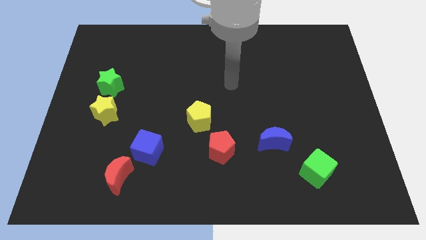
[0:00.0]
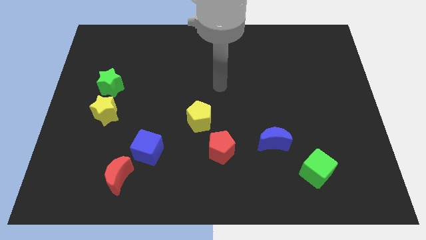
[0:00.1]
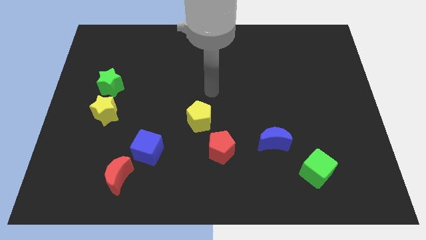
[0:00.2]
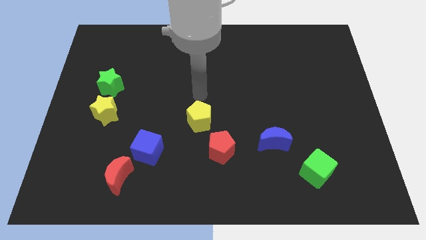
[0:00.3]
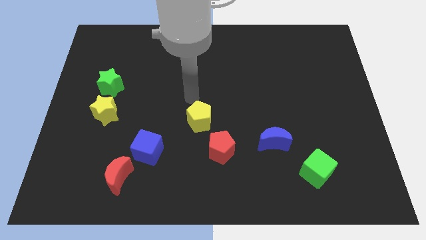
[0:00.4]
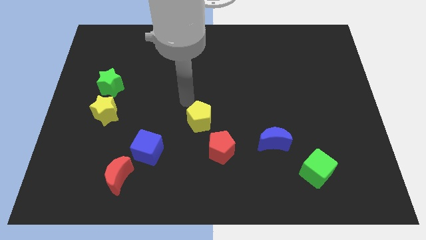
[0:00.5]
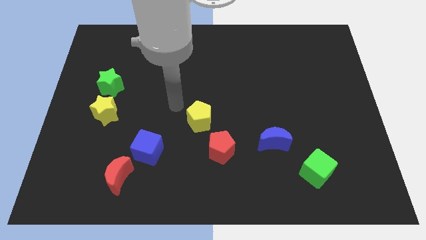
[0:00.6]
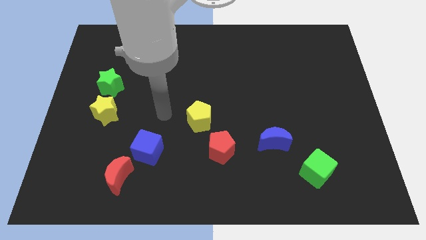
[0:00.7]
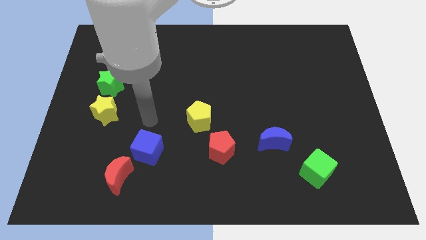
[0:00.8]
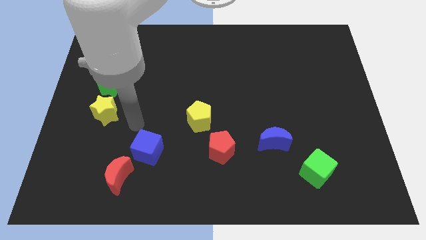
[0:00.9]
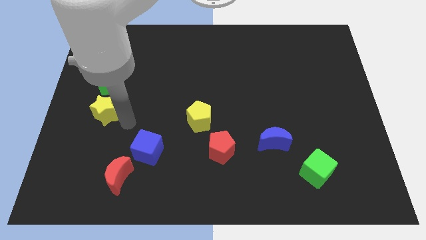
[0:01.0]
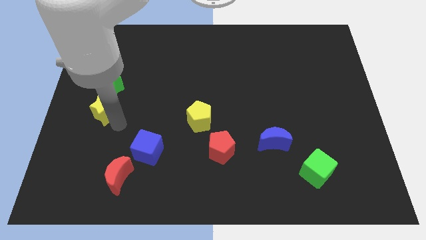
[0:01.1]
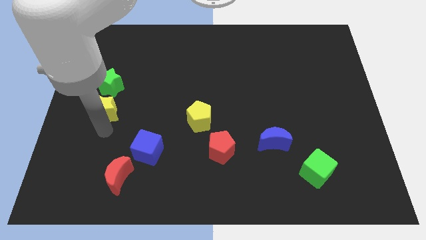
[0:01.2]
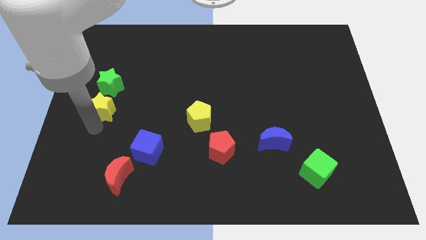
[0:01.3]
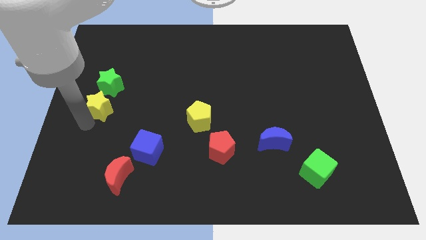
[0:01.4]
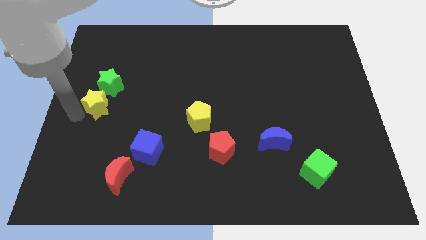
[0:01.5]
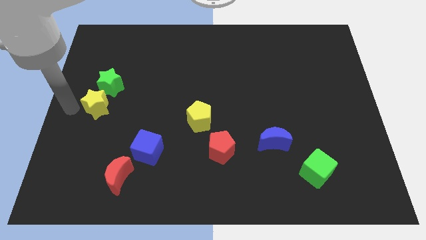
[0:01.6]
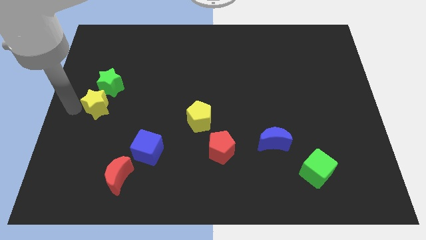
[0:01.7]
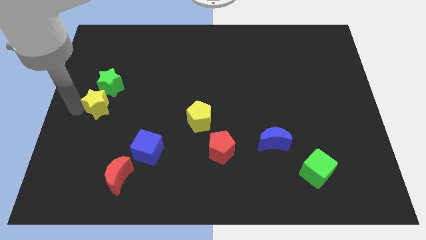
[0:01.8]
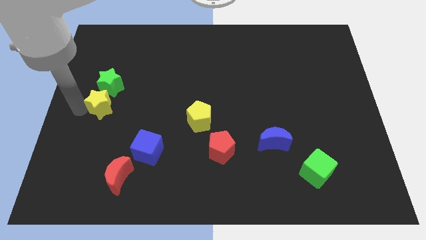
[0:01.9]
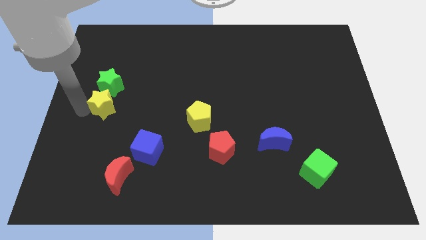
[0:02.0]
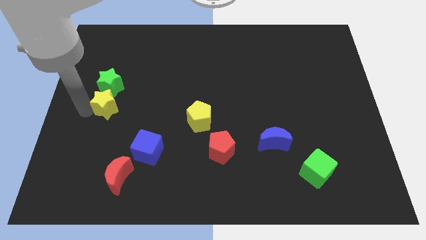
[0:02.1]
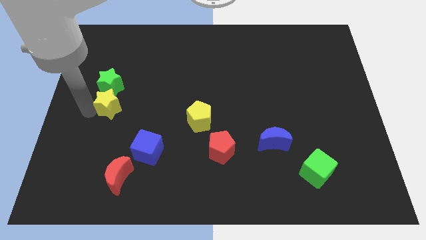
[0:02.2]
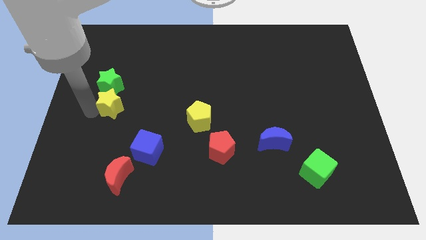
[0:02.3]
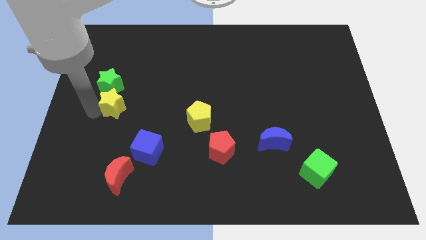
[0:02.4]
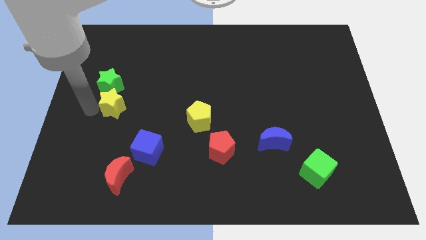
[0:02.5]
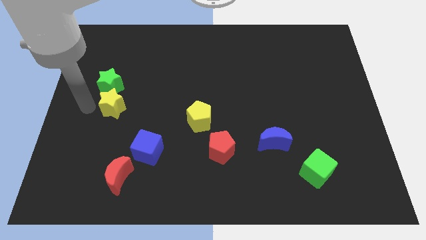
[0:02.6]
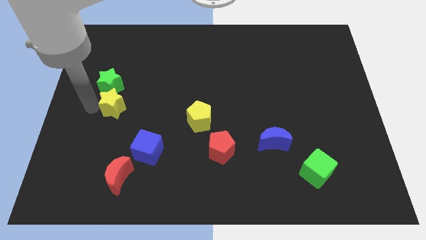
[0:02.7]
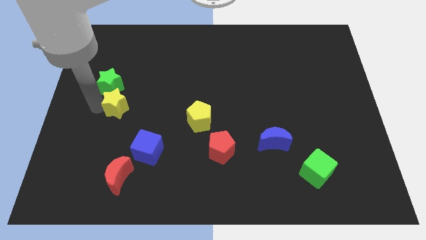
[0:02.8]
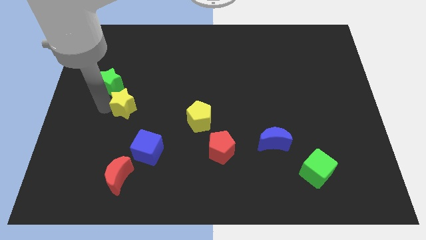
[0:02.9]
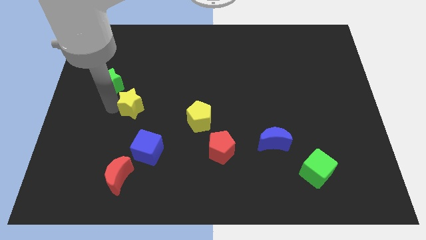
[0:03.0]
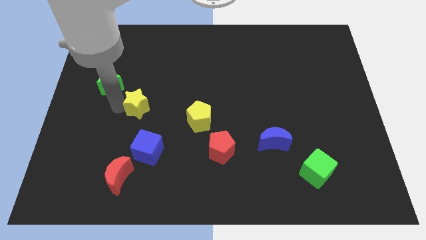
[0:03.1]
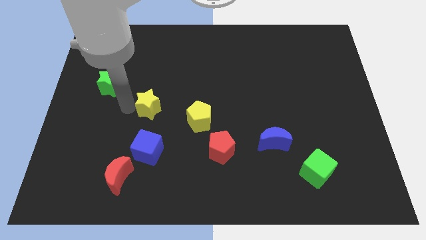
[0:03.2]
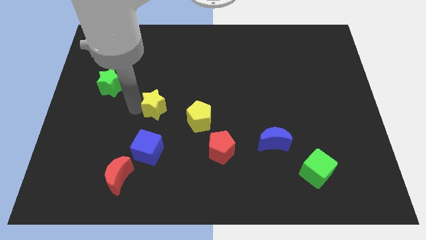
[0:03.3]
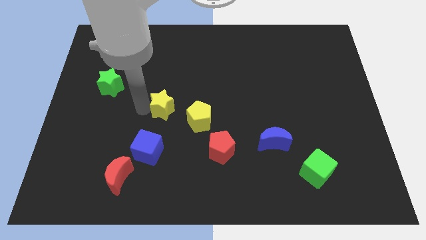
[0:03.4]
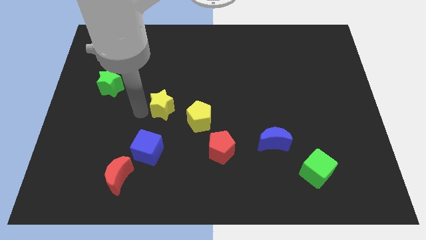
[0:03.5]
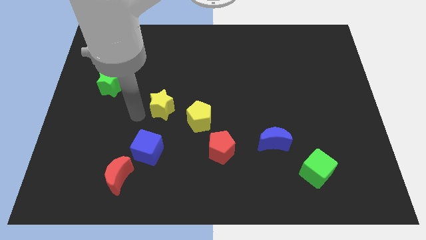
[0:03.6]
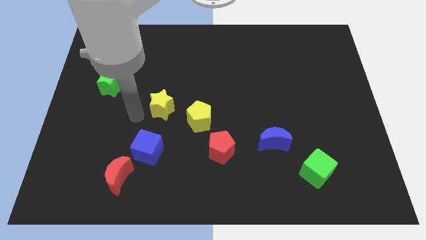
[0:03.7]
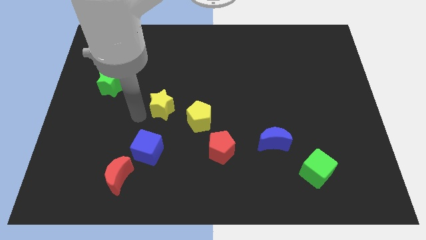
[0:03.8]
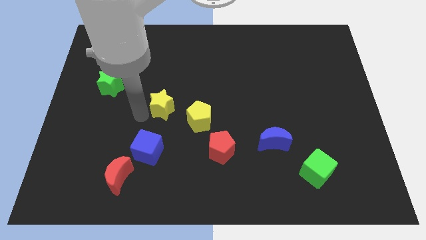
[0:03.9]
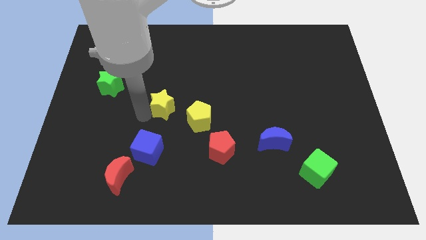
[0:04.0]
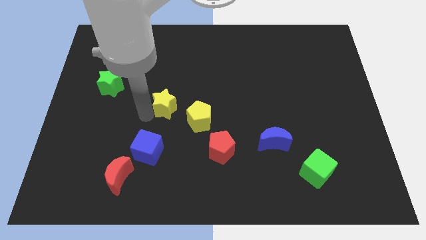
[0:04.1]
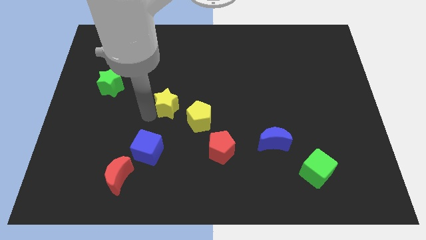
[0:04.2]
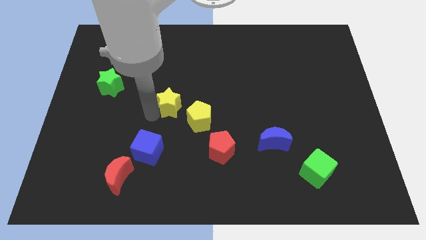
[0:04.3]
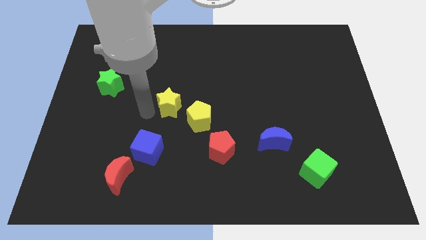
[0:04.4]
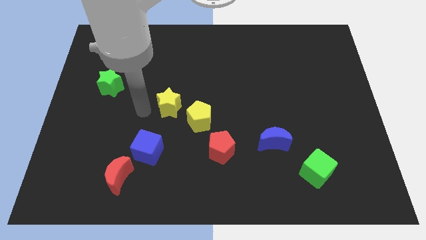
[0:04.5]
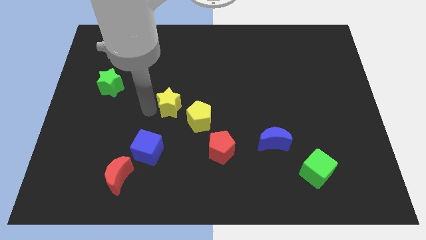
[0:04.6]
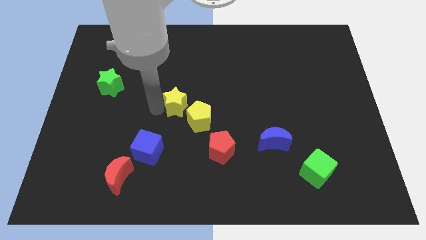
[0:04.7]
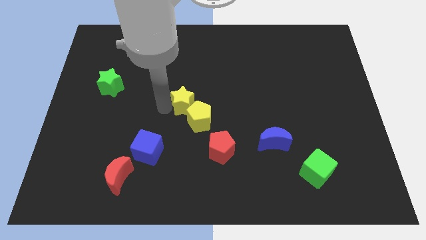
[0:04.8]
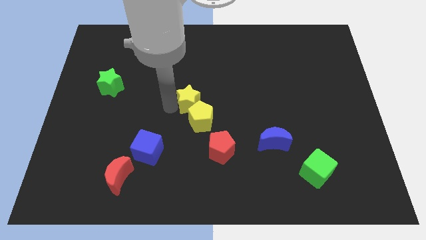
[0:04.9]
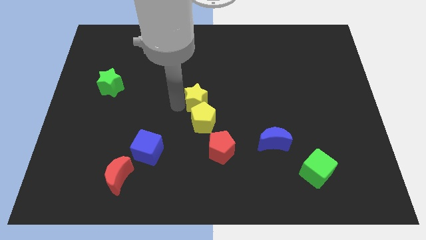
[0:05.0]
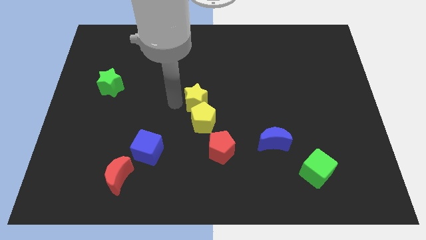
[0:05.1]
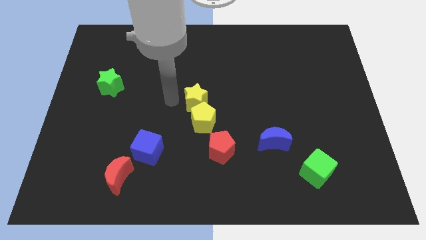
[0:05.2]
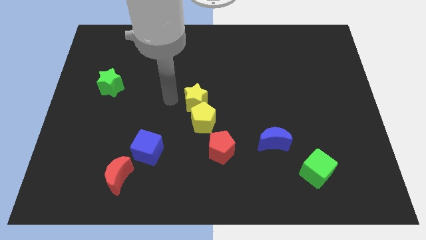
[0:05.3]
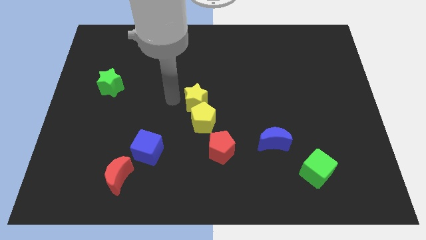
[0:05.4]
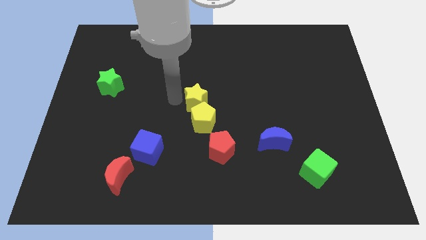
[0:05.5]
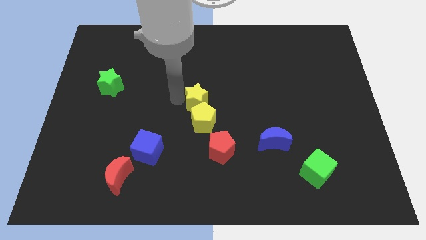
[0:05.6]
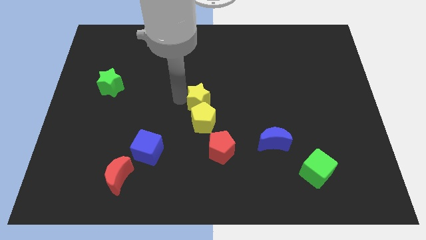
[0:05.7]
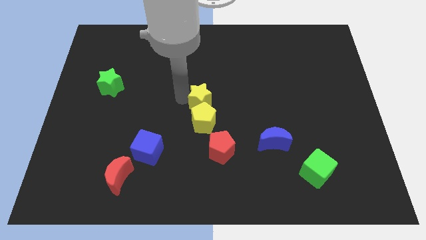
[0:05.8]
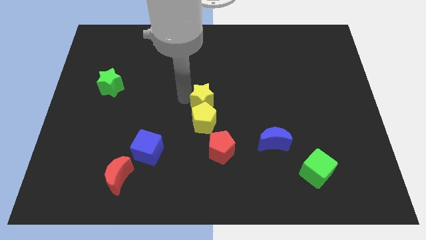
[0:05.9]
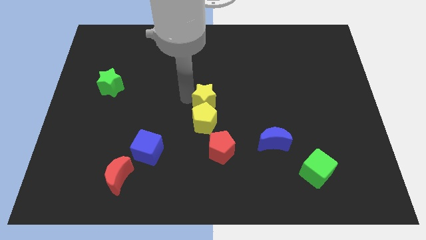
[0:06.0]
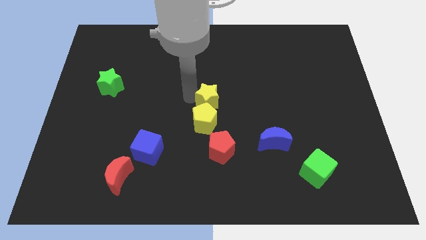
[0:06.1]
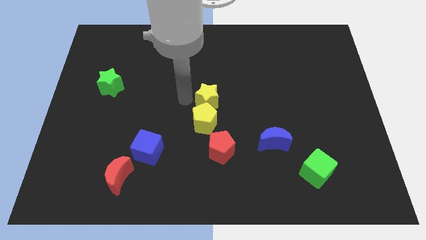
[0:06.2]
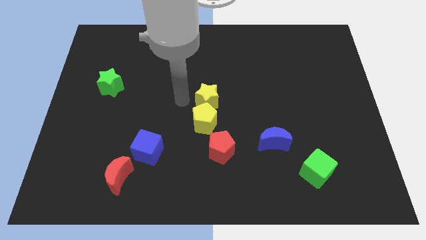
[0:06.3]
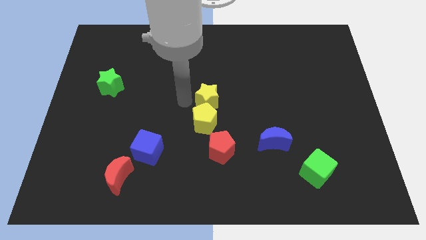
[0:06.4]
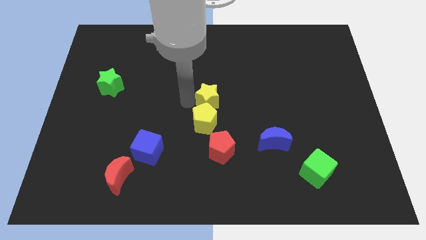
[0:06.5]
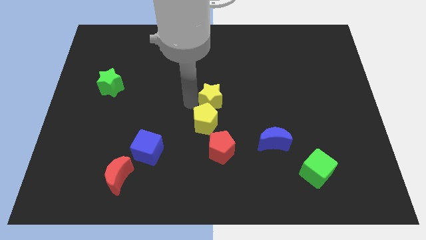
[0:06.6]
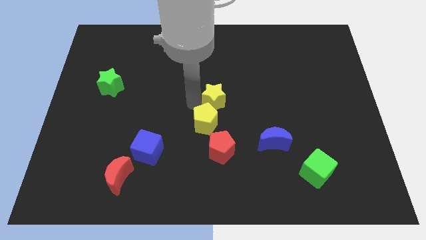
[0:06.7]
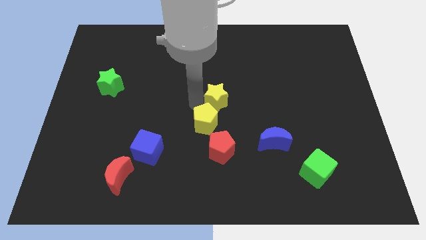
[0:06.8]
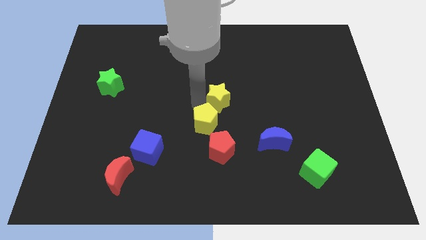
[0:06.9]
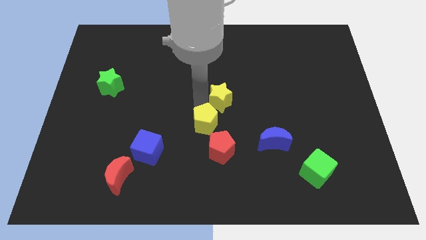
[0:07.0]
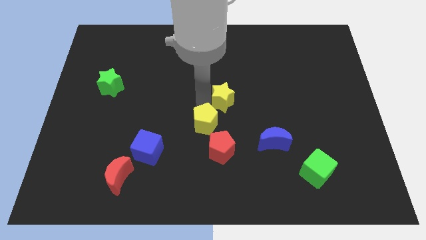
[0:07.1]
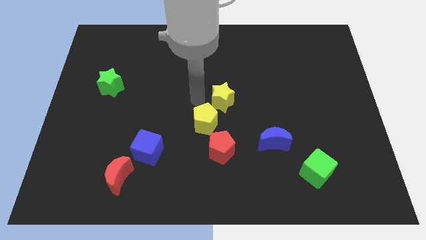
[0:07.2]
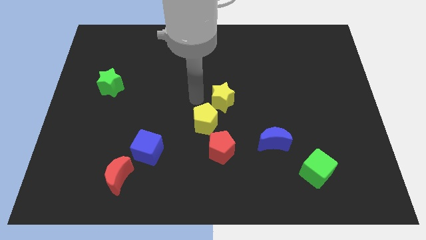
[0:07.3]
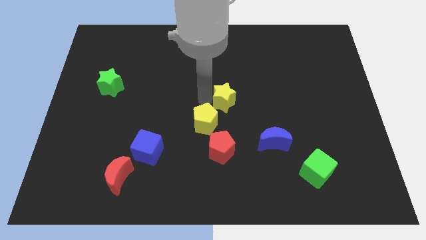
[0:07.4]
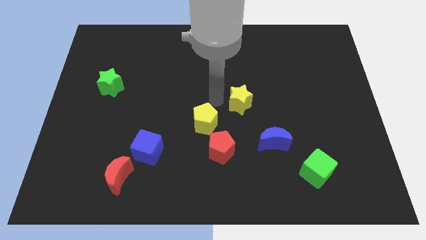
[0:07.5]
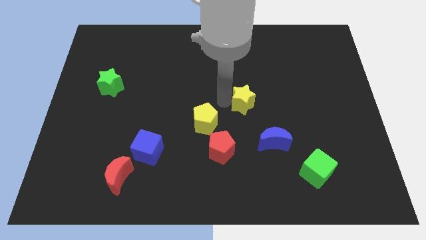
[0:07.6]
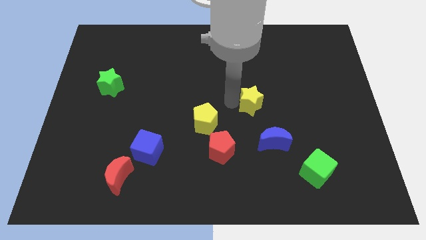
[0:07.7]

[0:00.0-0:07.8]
push the yellow star above the blue moon
